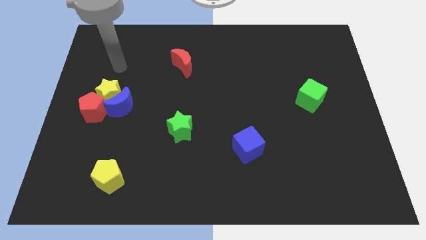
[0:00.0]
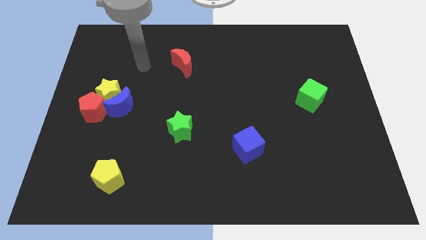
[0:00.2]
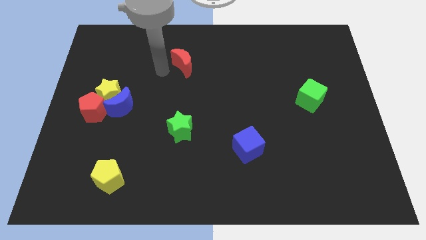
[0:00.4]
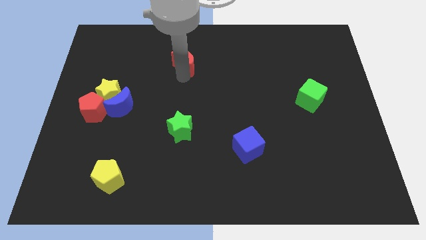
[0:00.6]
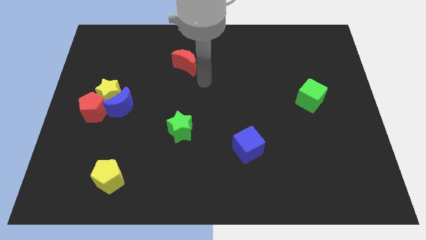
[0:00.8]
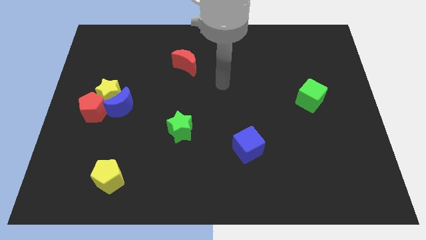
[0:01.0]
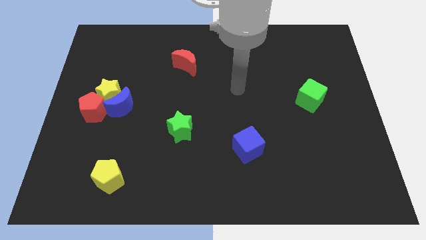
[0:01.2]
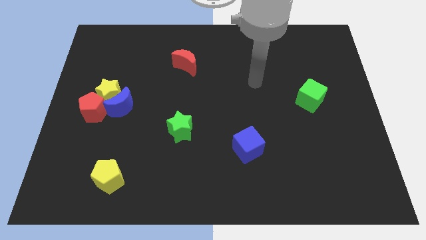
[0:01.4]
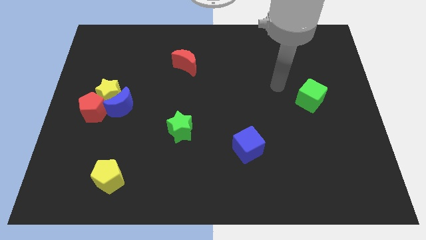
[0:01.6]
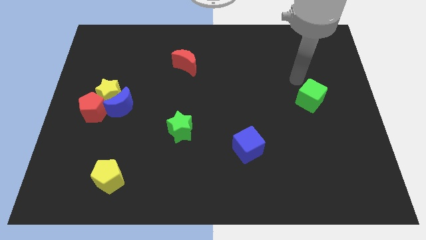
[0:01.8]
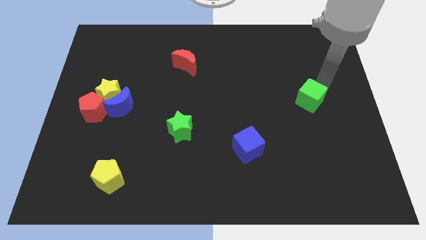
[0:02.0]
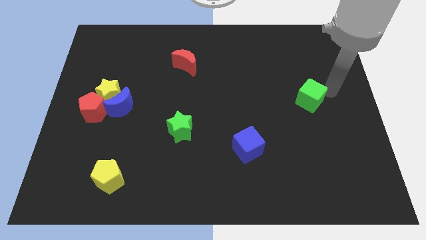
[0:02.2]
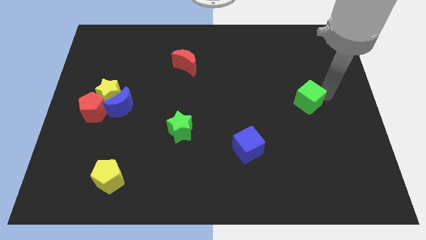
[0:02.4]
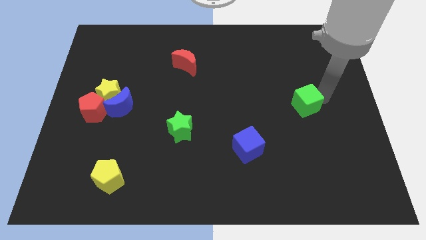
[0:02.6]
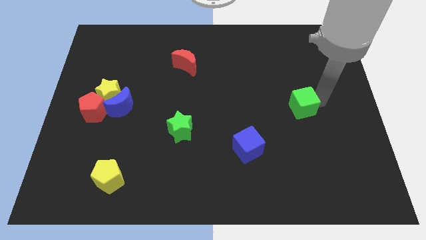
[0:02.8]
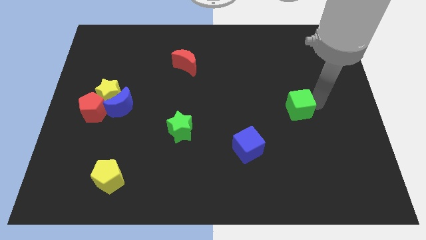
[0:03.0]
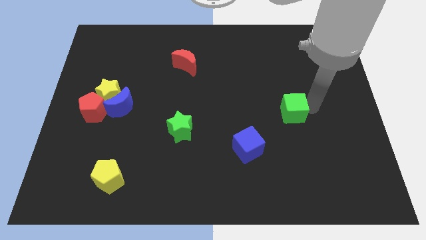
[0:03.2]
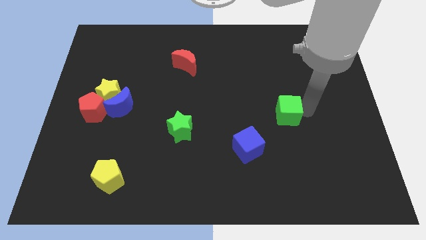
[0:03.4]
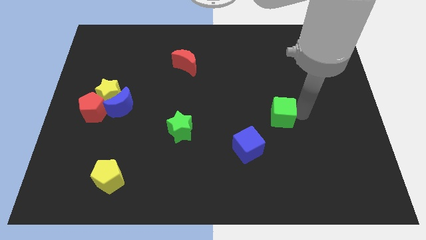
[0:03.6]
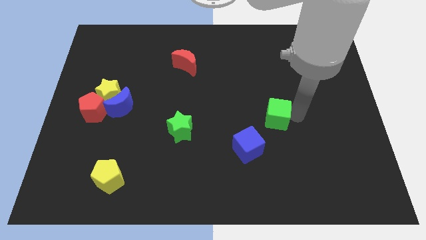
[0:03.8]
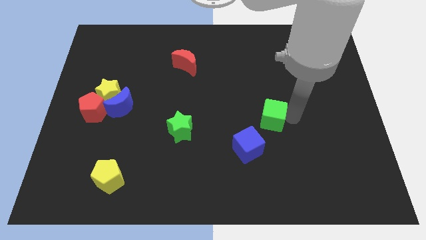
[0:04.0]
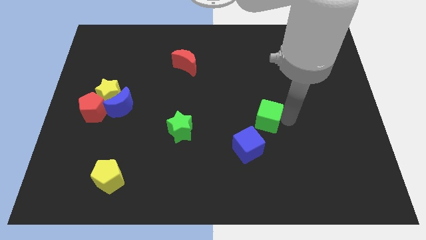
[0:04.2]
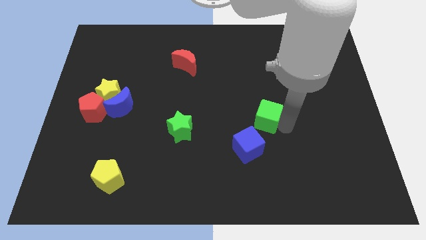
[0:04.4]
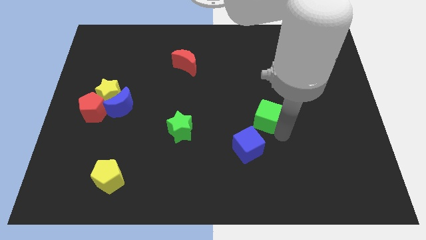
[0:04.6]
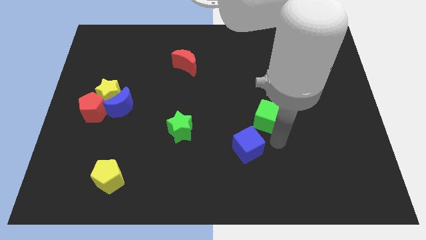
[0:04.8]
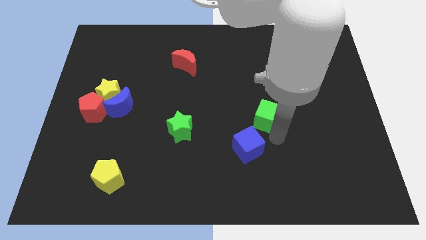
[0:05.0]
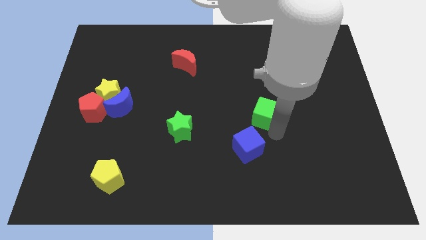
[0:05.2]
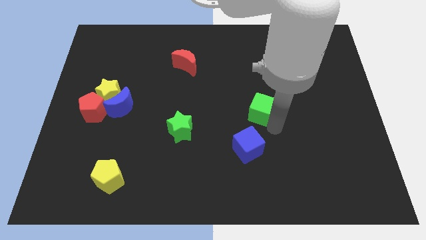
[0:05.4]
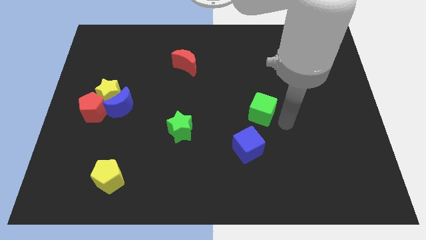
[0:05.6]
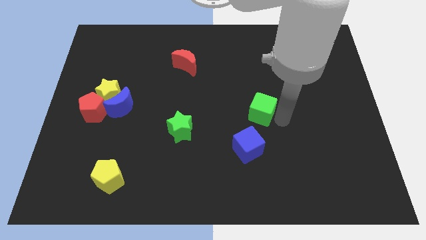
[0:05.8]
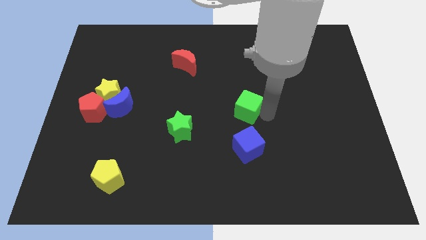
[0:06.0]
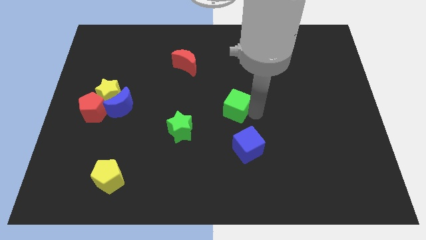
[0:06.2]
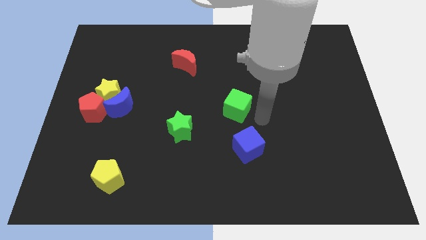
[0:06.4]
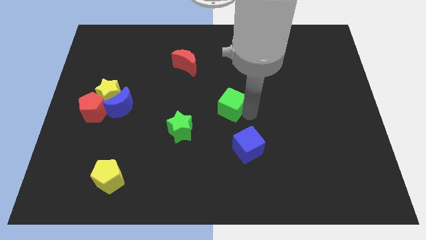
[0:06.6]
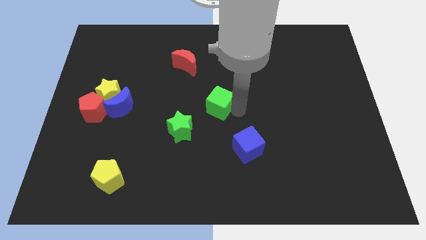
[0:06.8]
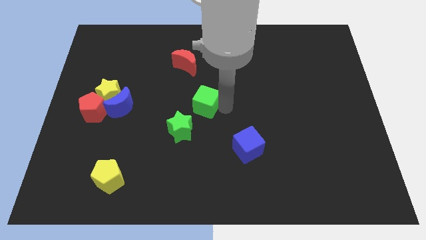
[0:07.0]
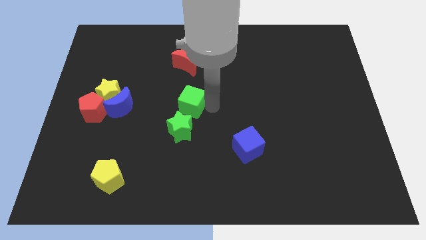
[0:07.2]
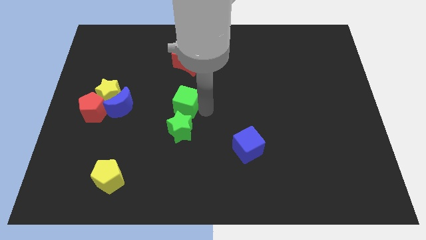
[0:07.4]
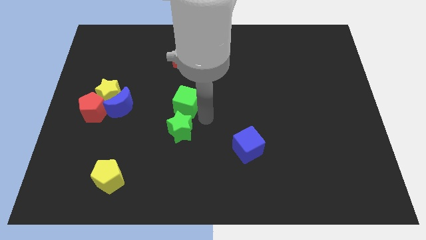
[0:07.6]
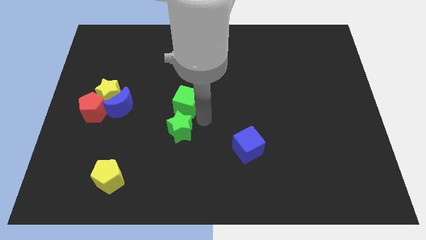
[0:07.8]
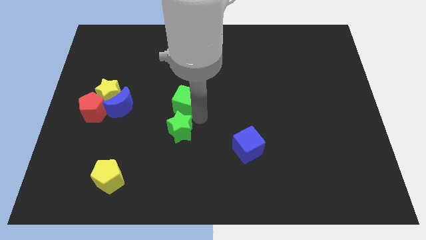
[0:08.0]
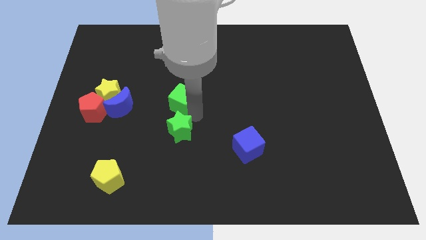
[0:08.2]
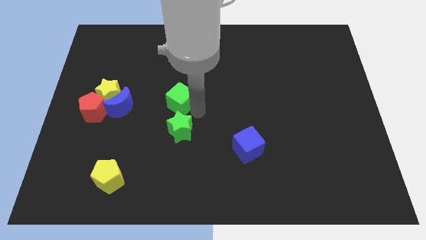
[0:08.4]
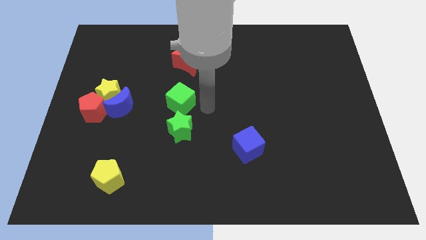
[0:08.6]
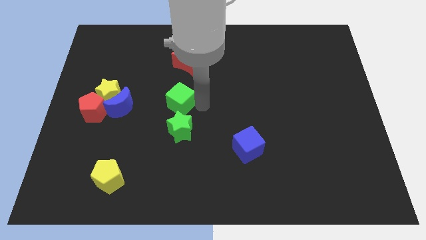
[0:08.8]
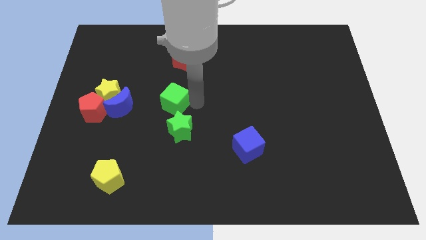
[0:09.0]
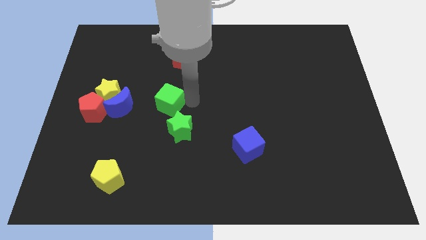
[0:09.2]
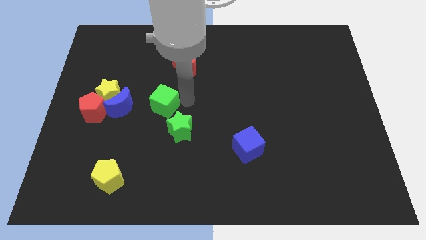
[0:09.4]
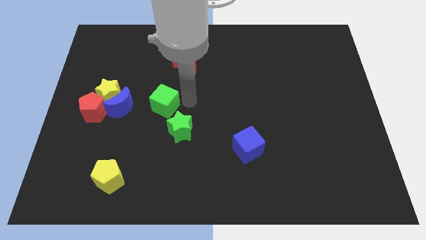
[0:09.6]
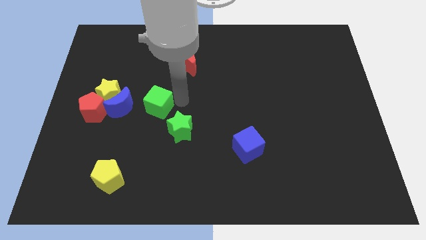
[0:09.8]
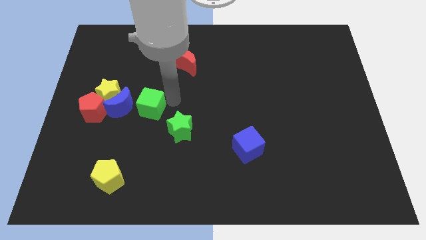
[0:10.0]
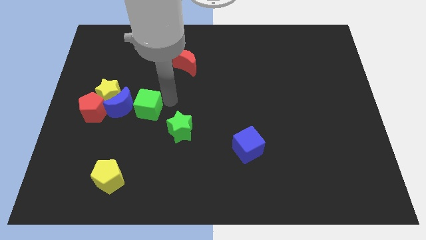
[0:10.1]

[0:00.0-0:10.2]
push the green cube towards the blue moon

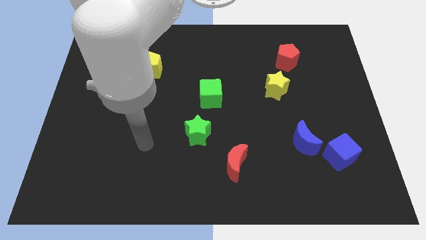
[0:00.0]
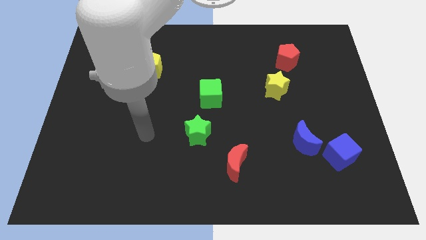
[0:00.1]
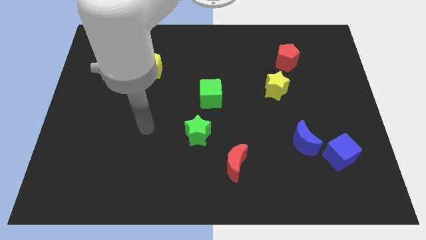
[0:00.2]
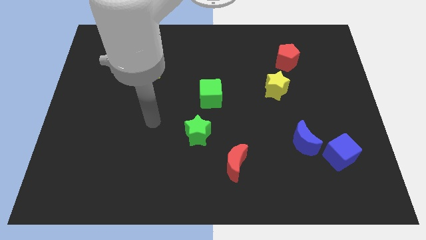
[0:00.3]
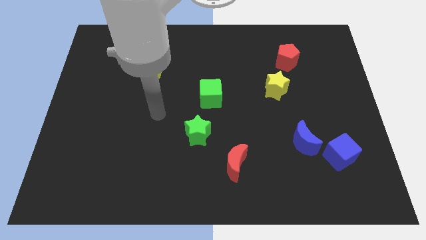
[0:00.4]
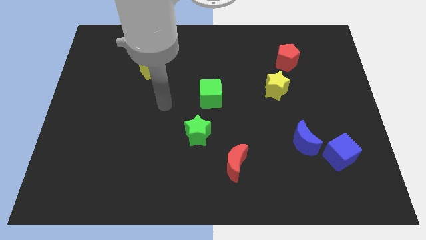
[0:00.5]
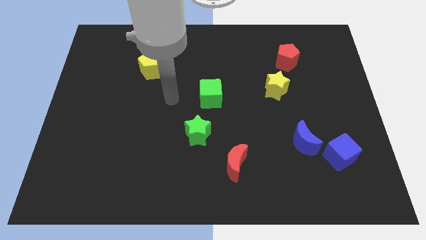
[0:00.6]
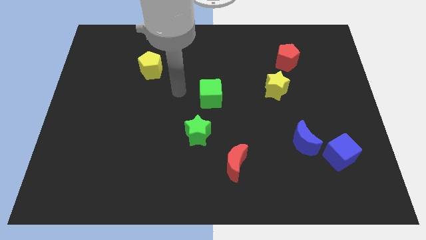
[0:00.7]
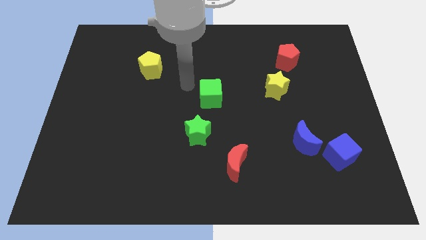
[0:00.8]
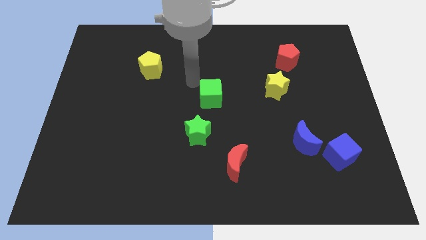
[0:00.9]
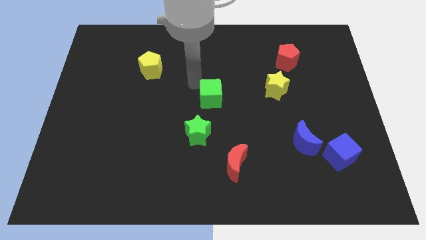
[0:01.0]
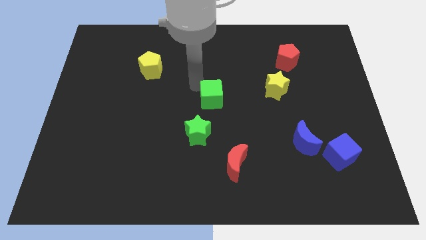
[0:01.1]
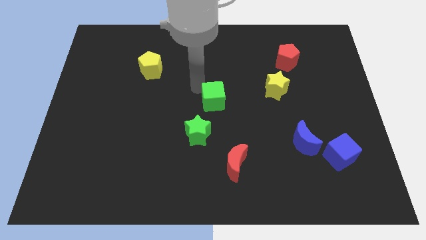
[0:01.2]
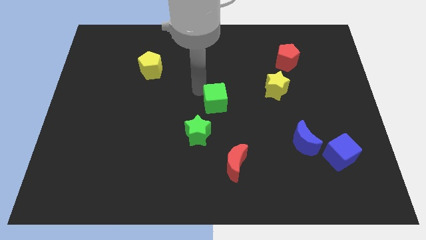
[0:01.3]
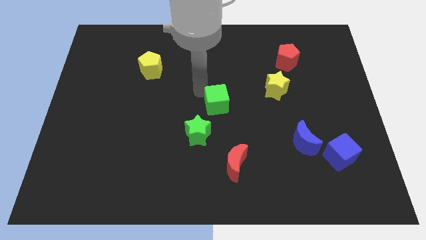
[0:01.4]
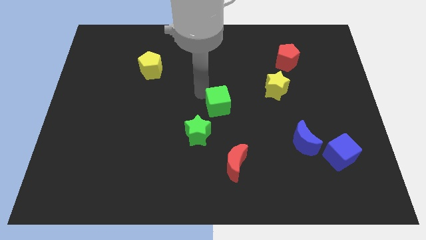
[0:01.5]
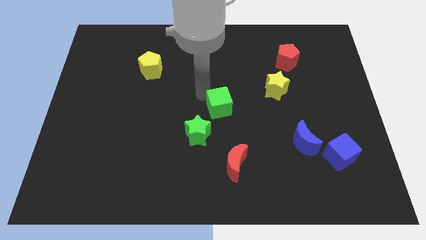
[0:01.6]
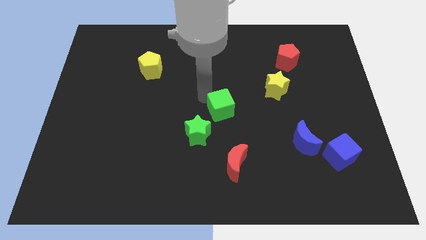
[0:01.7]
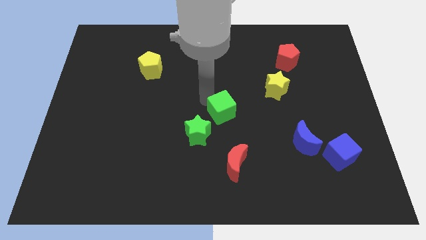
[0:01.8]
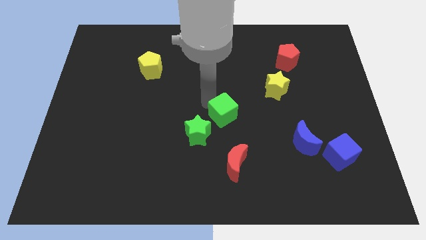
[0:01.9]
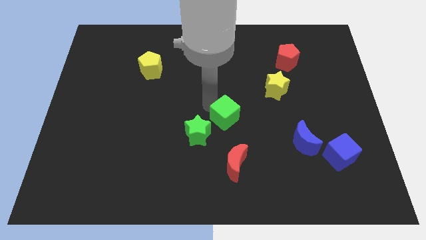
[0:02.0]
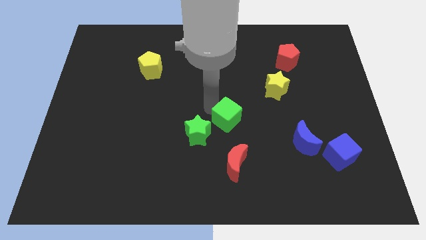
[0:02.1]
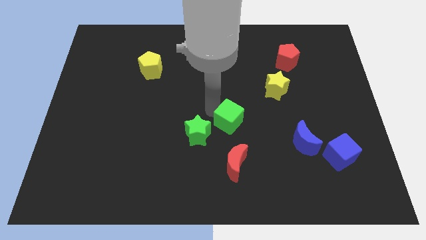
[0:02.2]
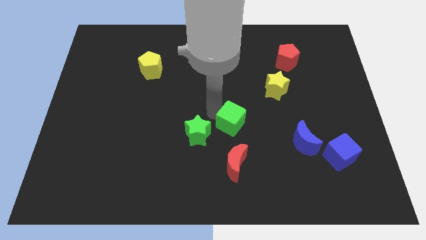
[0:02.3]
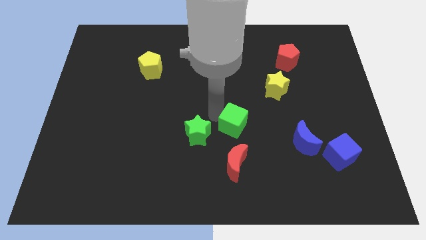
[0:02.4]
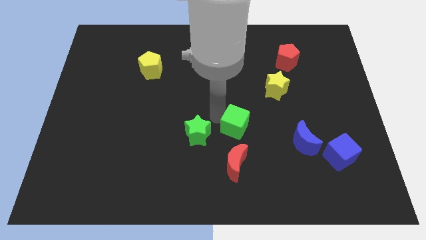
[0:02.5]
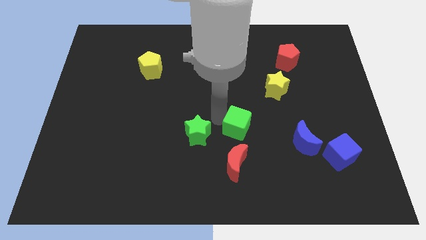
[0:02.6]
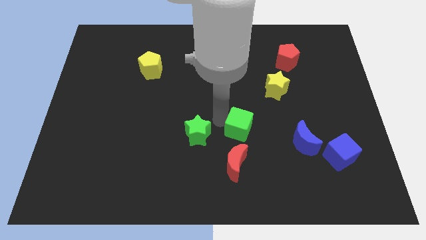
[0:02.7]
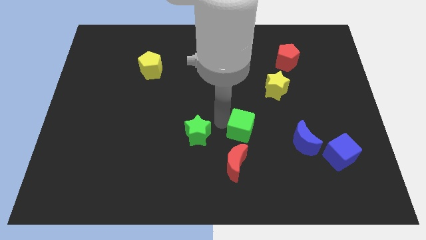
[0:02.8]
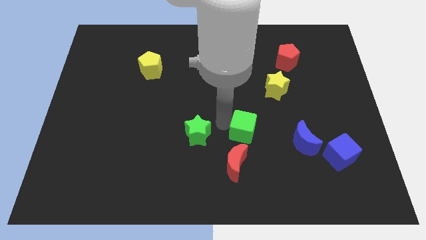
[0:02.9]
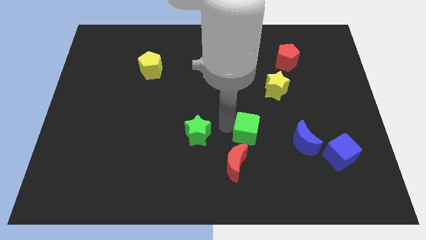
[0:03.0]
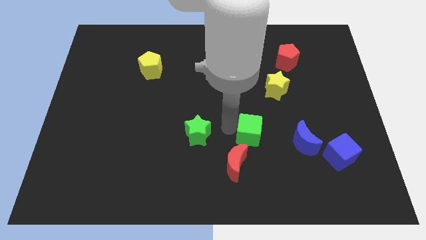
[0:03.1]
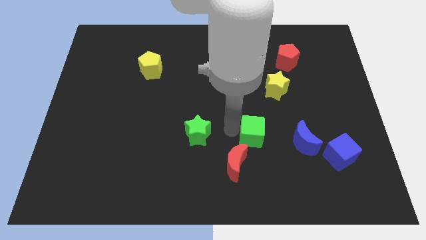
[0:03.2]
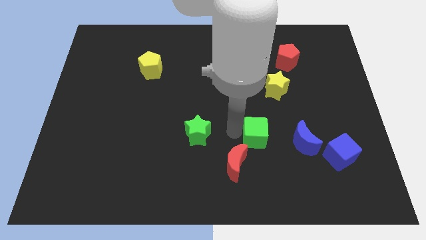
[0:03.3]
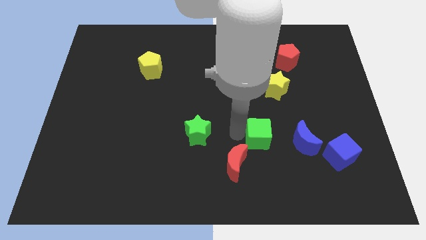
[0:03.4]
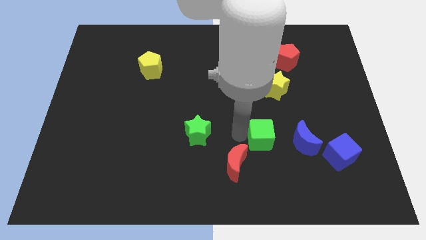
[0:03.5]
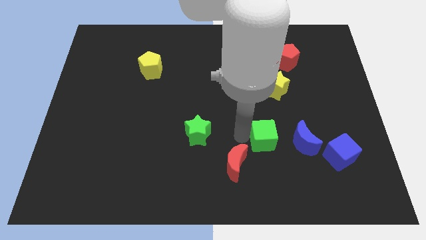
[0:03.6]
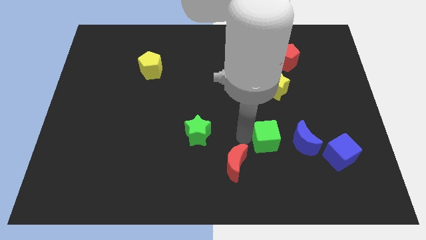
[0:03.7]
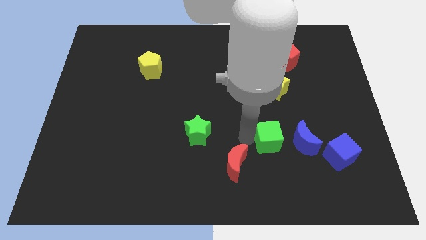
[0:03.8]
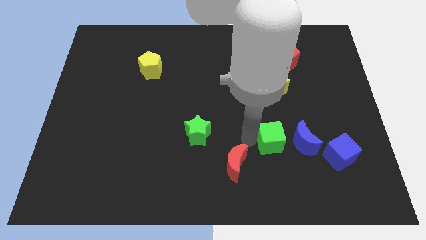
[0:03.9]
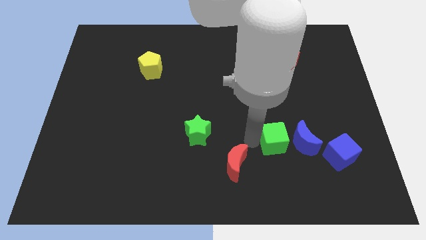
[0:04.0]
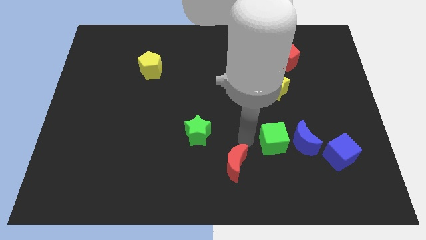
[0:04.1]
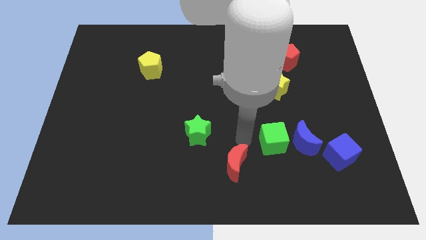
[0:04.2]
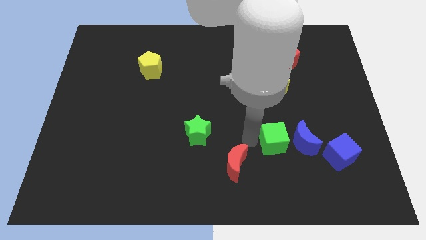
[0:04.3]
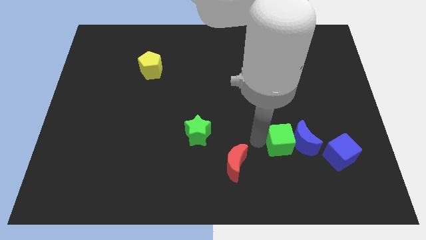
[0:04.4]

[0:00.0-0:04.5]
put the green cube to the blue moon
